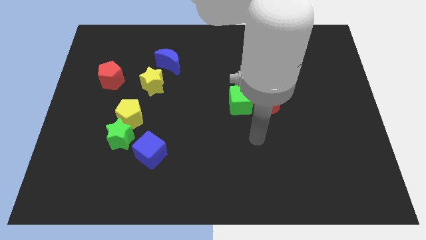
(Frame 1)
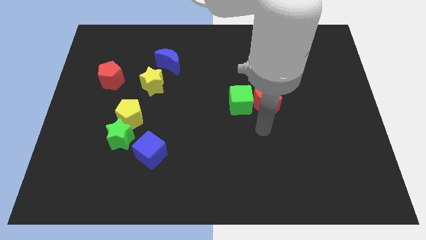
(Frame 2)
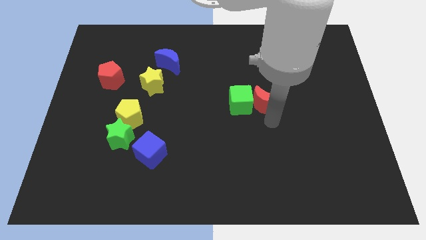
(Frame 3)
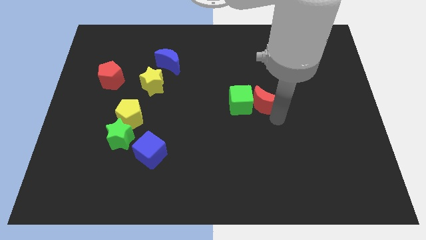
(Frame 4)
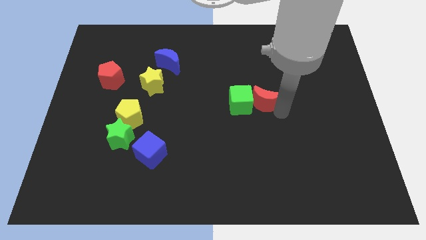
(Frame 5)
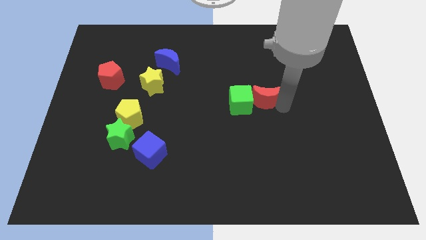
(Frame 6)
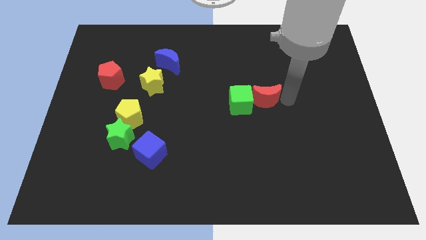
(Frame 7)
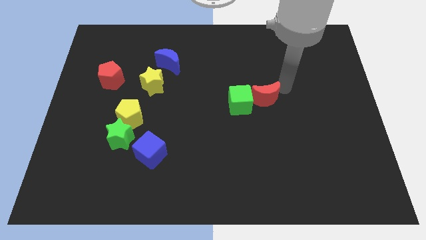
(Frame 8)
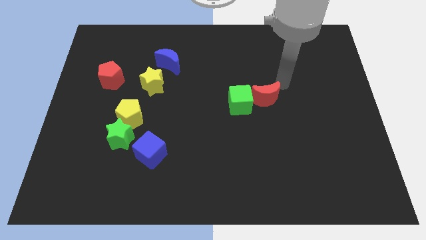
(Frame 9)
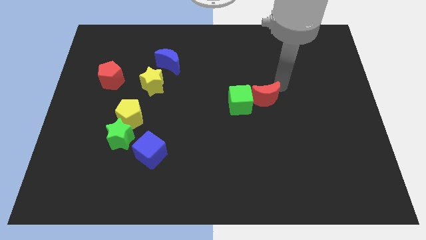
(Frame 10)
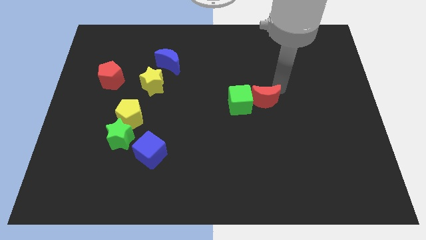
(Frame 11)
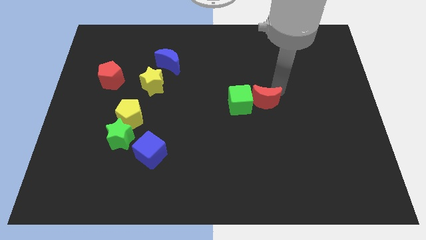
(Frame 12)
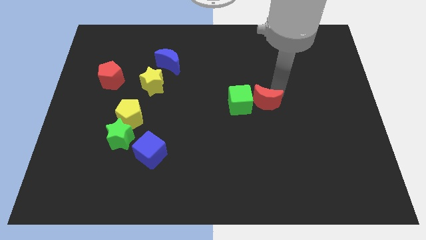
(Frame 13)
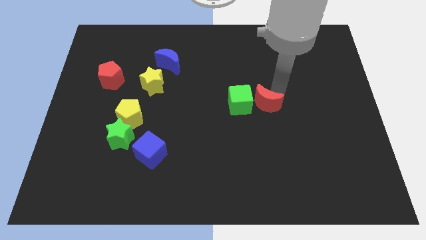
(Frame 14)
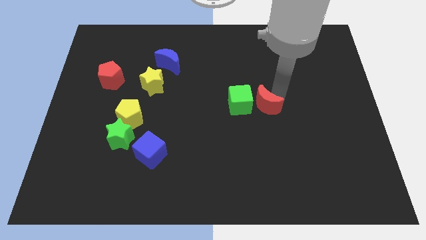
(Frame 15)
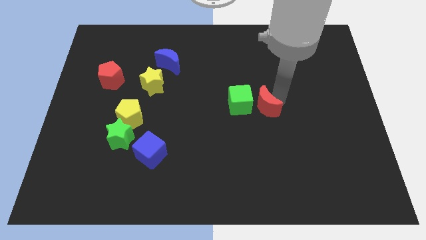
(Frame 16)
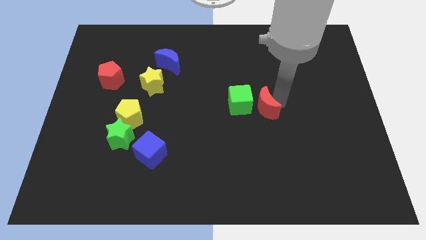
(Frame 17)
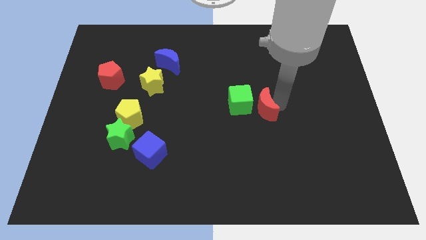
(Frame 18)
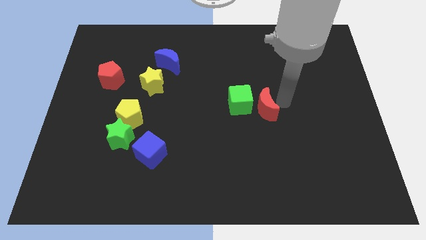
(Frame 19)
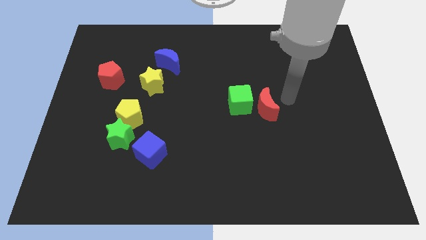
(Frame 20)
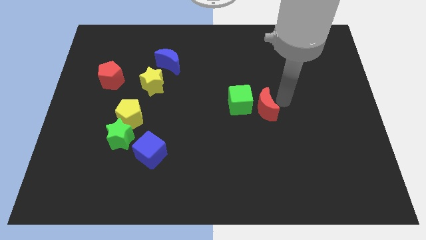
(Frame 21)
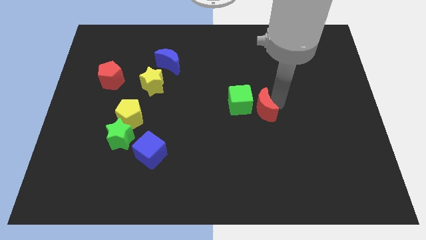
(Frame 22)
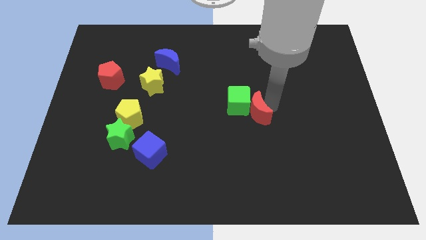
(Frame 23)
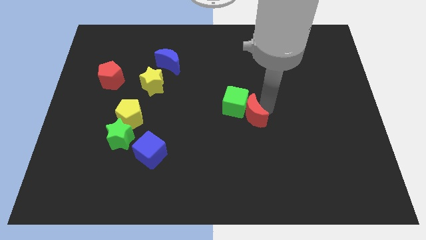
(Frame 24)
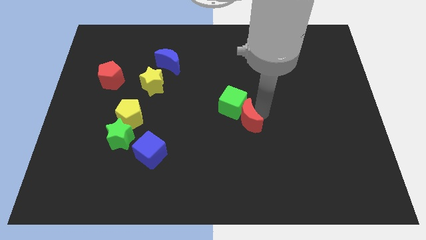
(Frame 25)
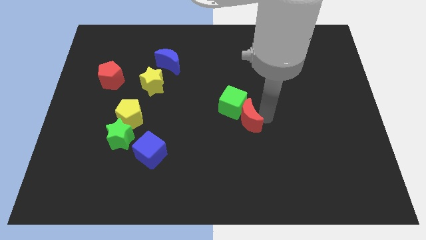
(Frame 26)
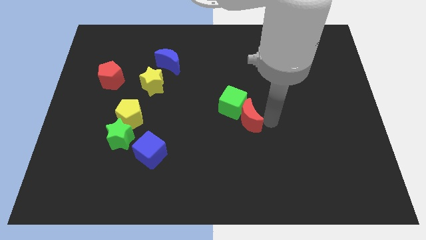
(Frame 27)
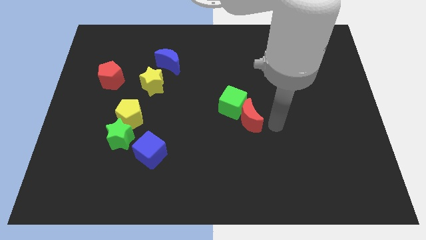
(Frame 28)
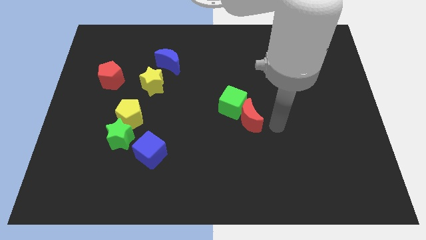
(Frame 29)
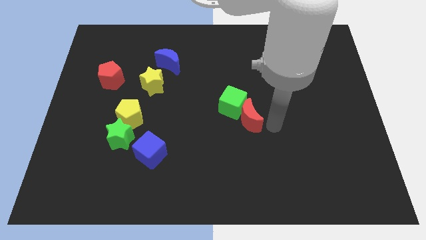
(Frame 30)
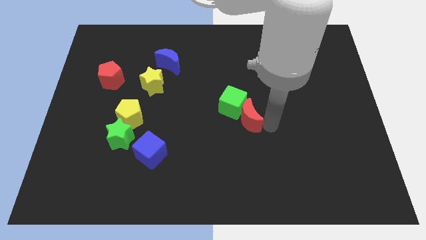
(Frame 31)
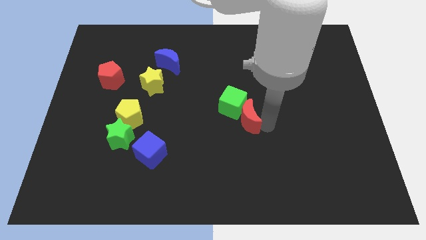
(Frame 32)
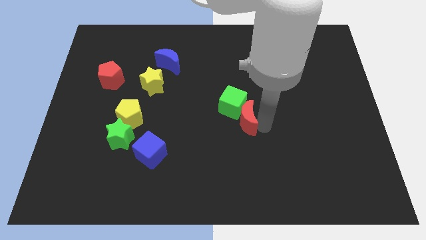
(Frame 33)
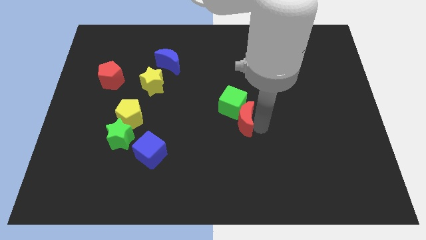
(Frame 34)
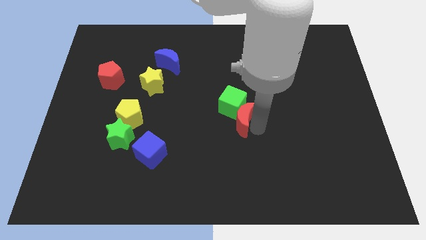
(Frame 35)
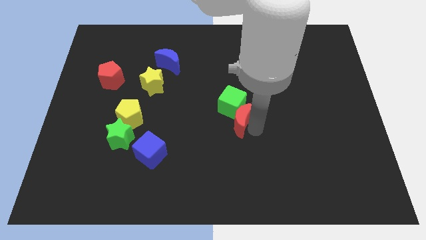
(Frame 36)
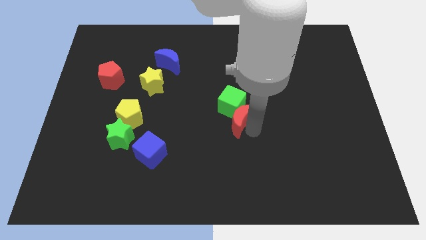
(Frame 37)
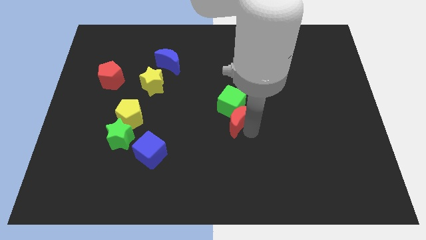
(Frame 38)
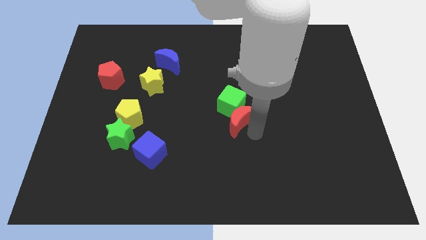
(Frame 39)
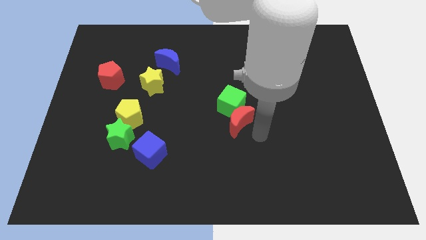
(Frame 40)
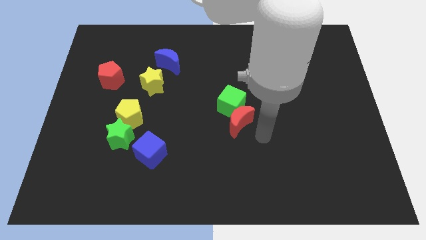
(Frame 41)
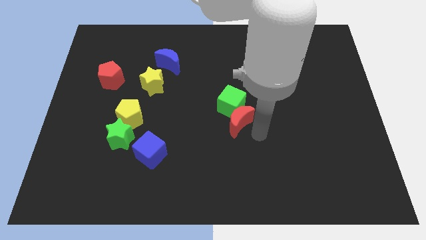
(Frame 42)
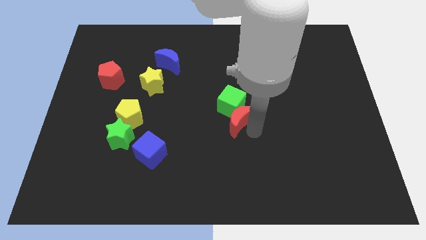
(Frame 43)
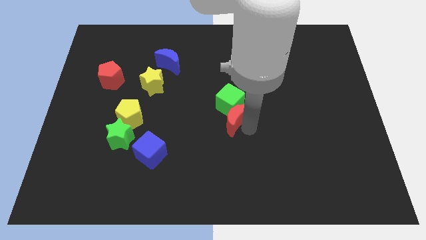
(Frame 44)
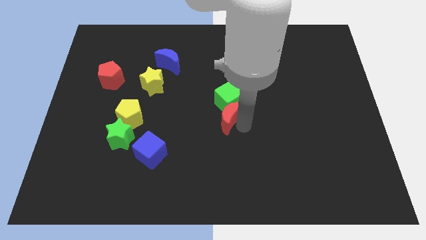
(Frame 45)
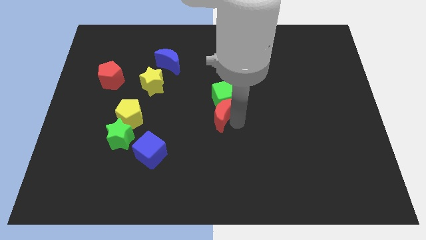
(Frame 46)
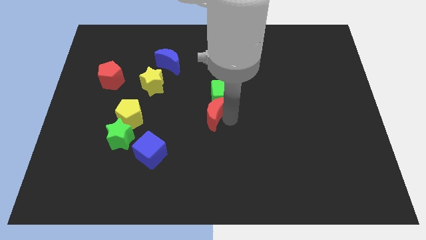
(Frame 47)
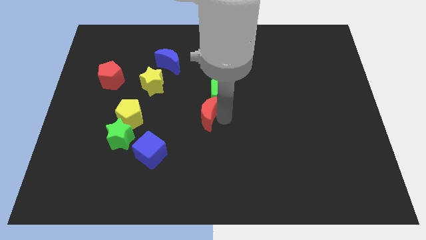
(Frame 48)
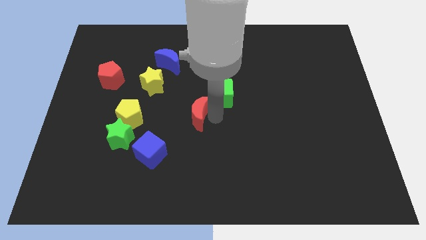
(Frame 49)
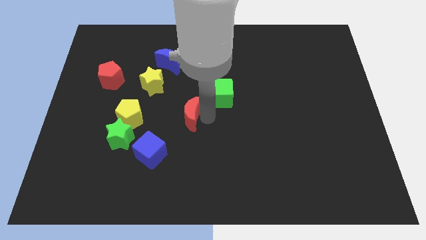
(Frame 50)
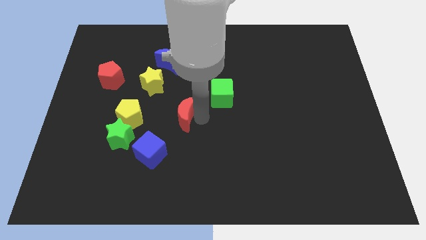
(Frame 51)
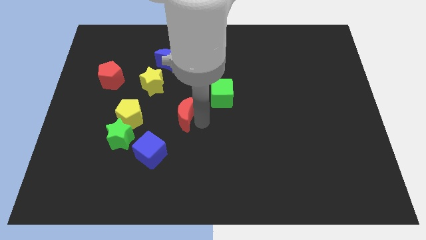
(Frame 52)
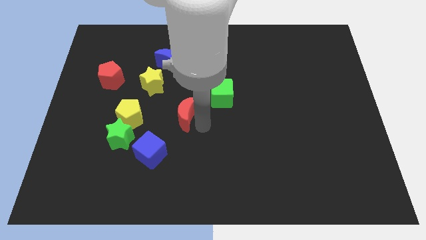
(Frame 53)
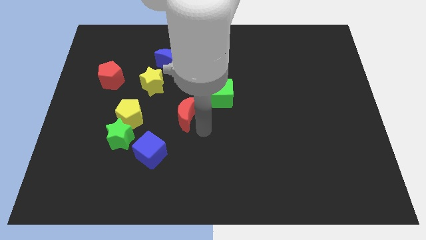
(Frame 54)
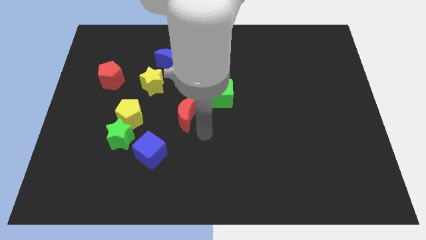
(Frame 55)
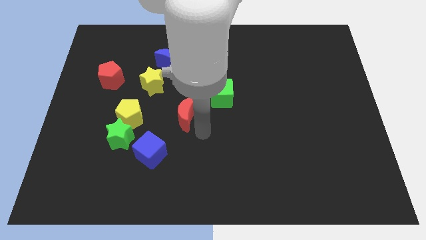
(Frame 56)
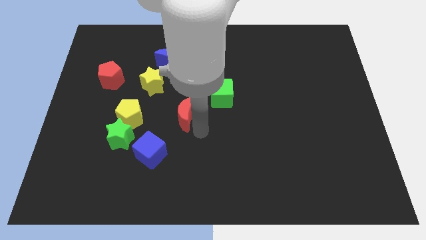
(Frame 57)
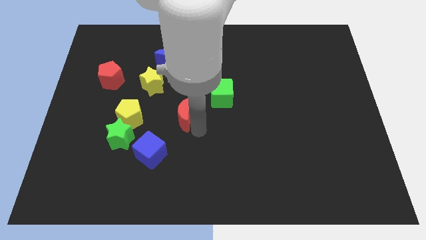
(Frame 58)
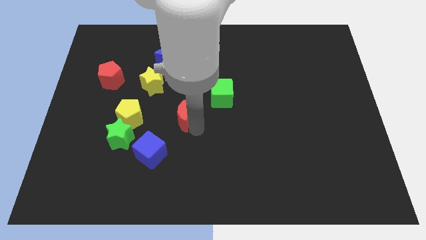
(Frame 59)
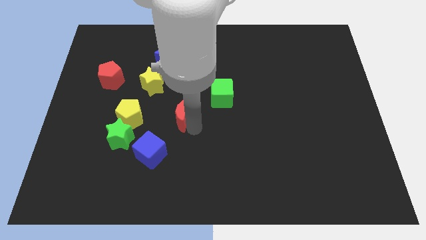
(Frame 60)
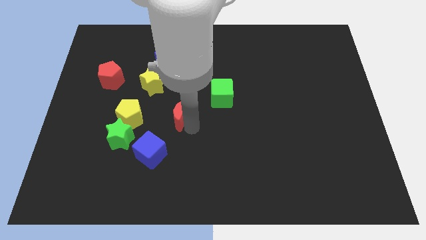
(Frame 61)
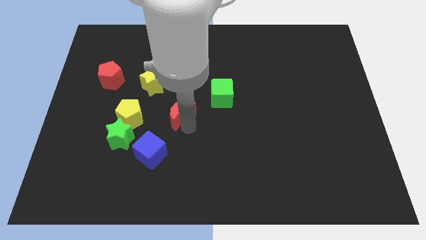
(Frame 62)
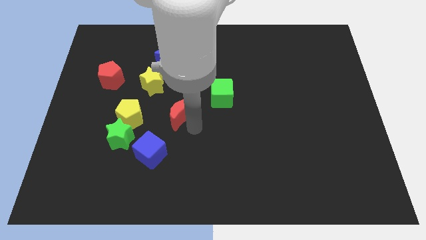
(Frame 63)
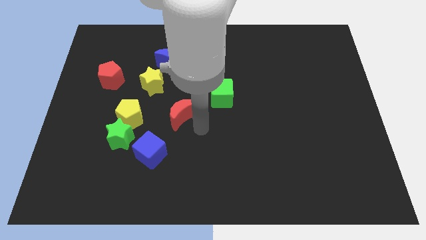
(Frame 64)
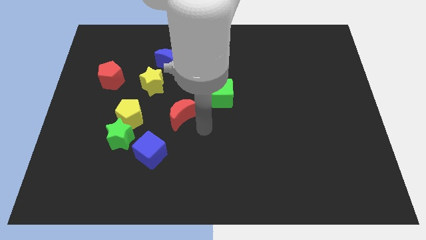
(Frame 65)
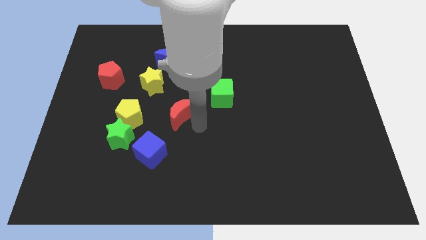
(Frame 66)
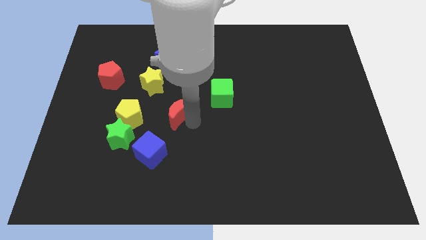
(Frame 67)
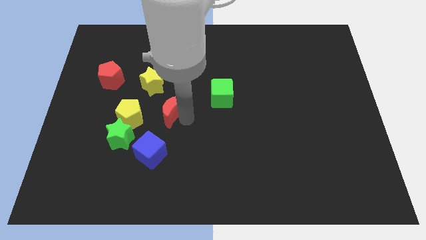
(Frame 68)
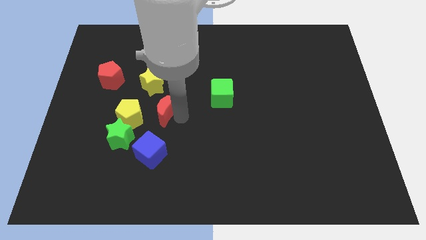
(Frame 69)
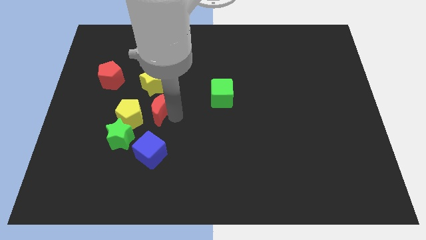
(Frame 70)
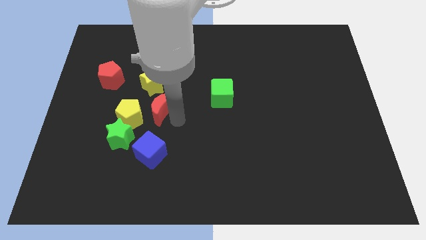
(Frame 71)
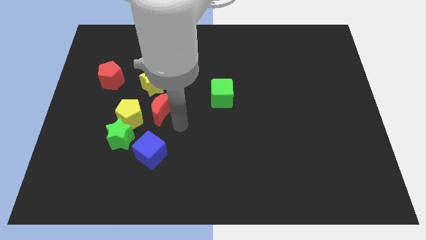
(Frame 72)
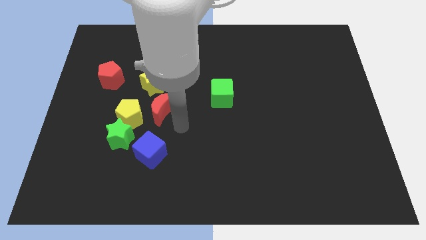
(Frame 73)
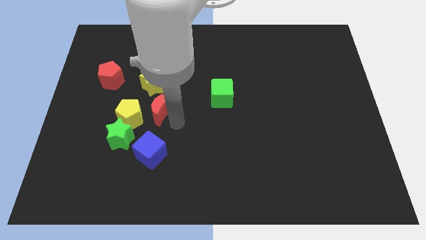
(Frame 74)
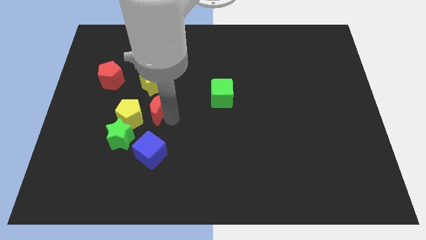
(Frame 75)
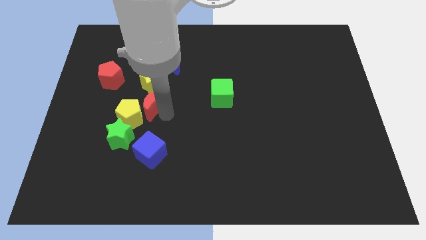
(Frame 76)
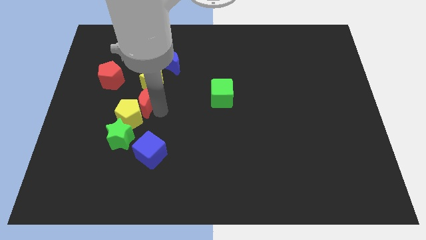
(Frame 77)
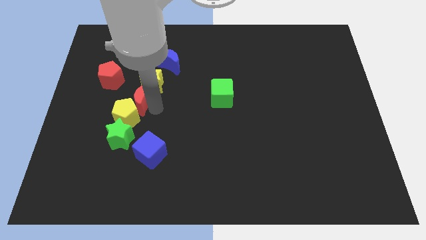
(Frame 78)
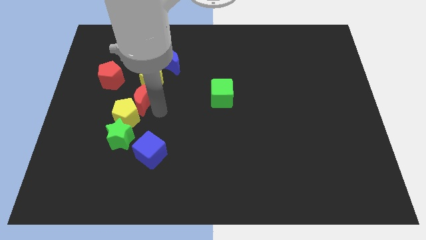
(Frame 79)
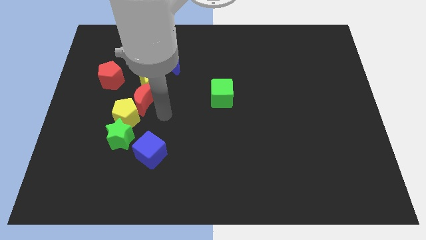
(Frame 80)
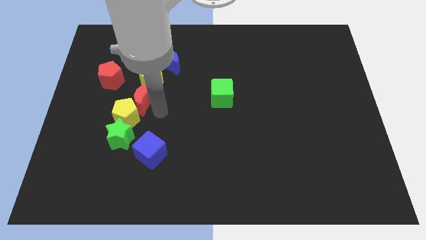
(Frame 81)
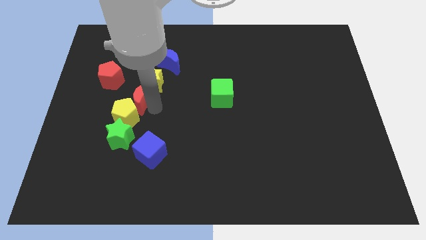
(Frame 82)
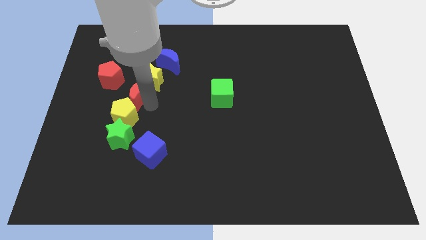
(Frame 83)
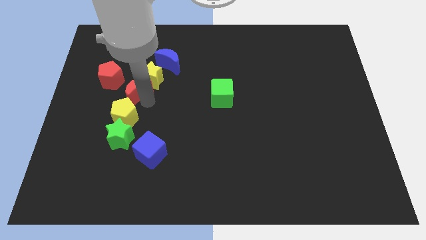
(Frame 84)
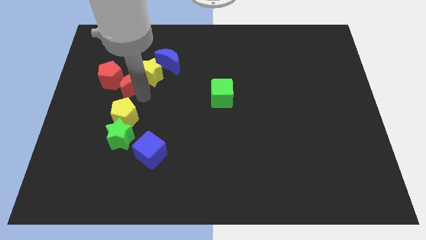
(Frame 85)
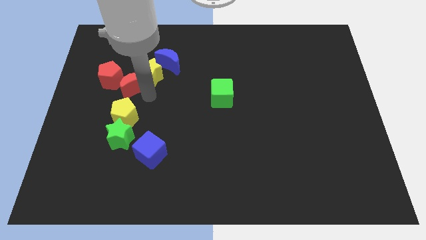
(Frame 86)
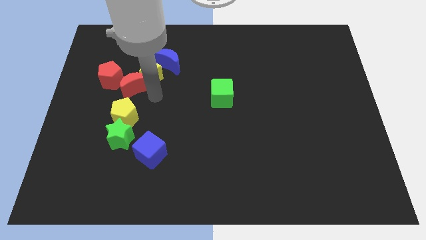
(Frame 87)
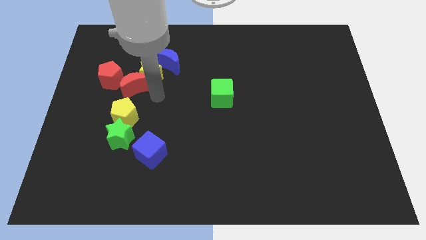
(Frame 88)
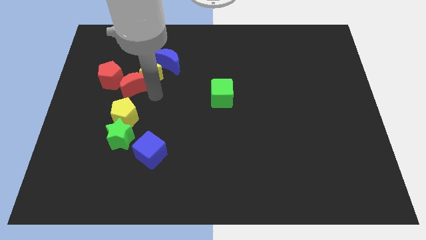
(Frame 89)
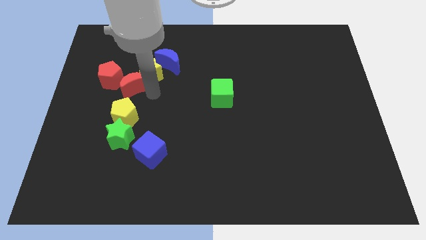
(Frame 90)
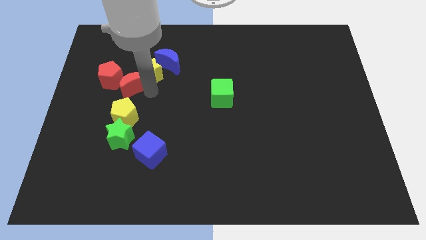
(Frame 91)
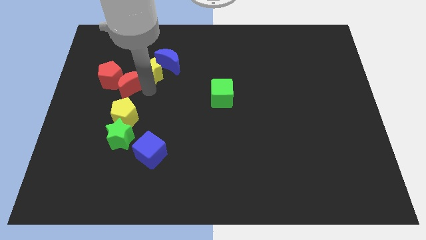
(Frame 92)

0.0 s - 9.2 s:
move the red moon to the red pentagon
